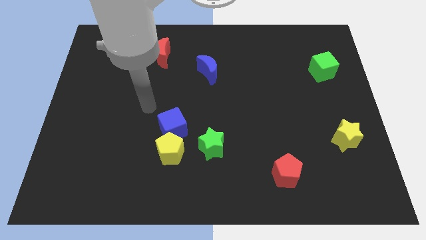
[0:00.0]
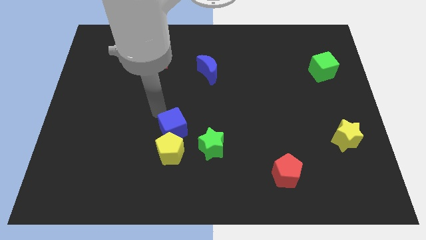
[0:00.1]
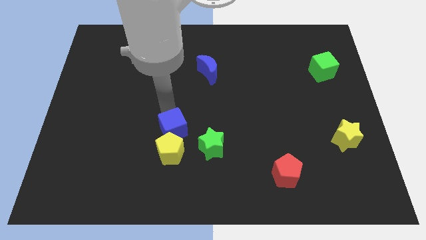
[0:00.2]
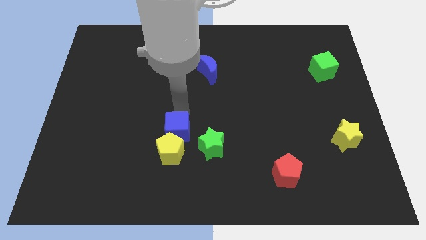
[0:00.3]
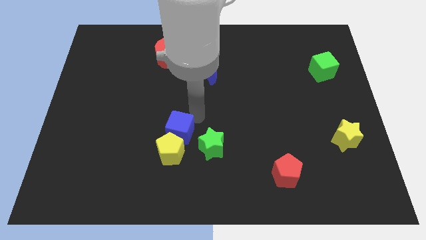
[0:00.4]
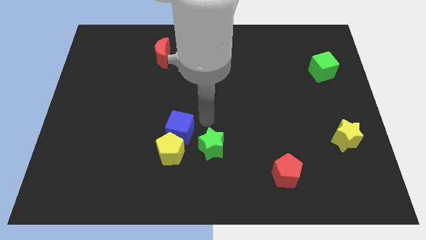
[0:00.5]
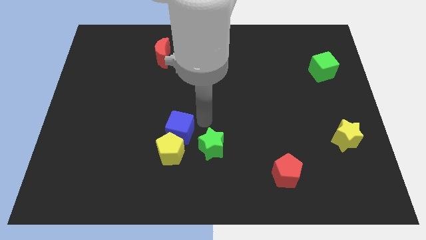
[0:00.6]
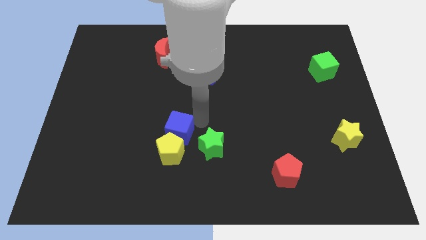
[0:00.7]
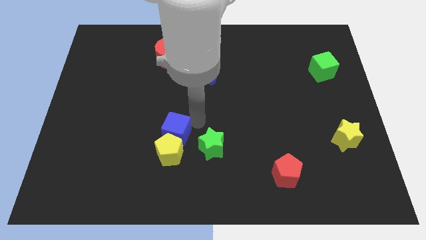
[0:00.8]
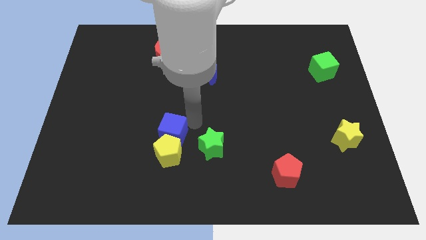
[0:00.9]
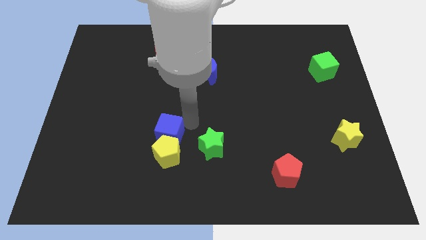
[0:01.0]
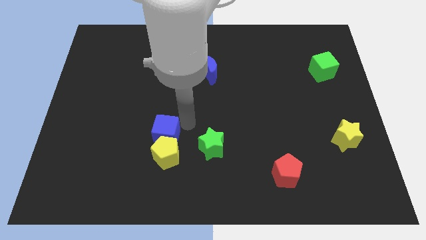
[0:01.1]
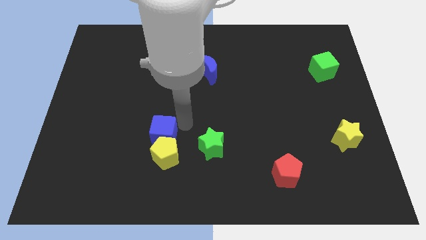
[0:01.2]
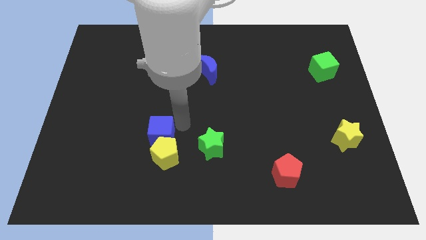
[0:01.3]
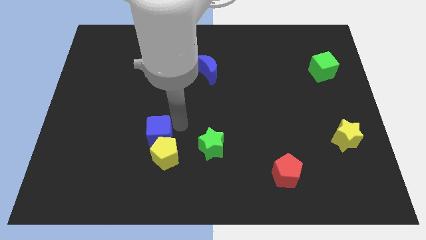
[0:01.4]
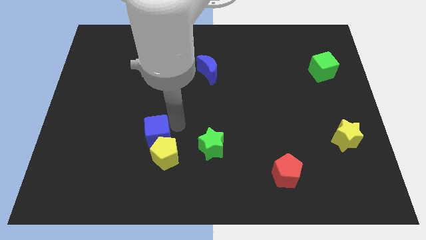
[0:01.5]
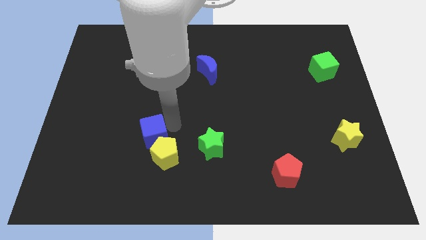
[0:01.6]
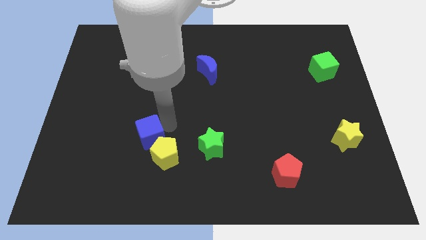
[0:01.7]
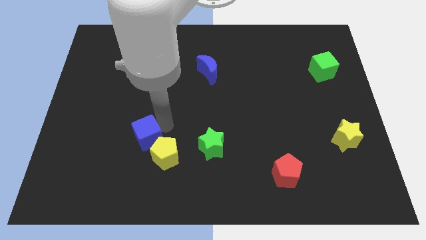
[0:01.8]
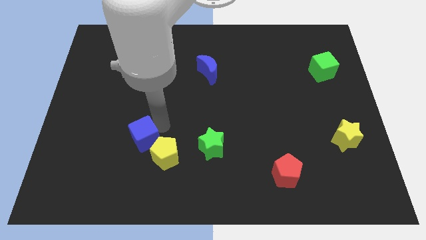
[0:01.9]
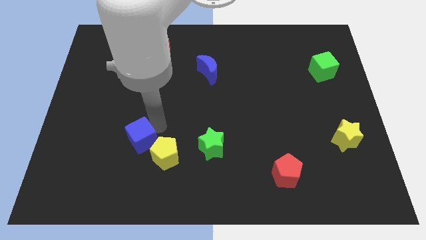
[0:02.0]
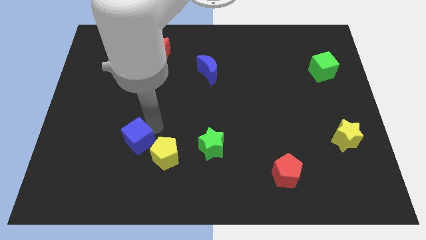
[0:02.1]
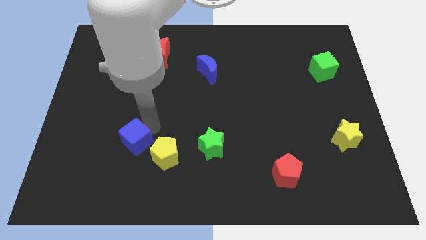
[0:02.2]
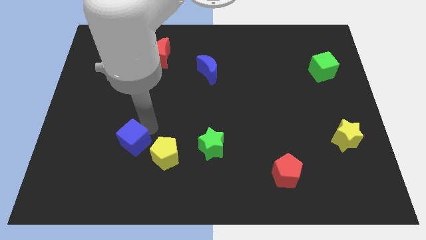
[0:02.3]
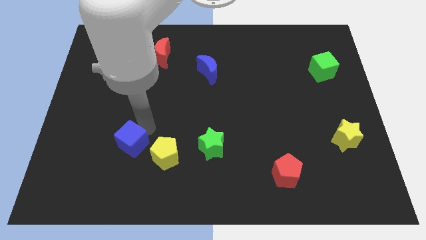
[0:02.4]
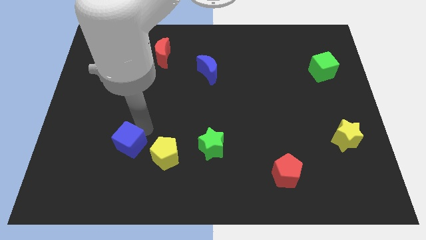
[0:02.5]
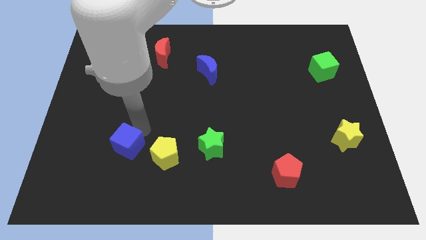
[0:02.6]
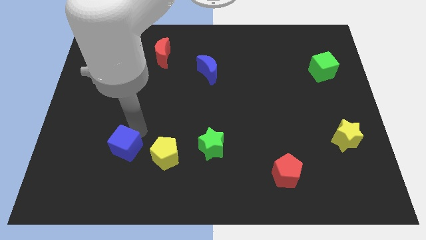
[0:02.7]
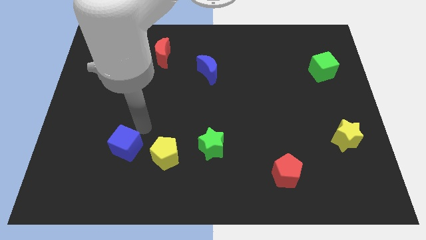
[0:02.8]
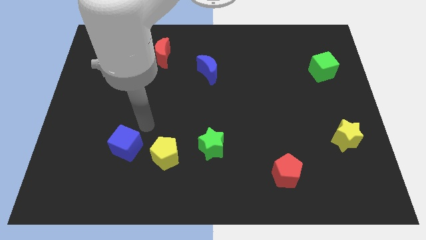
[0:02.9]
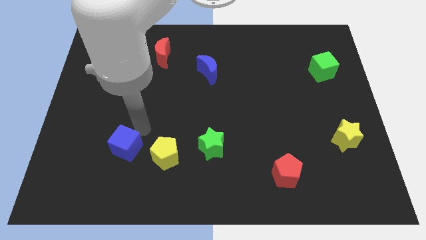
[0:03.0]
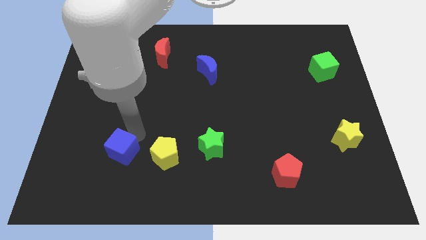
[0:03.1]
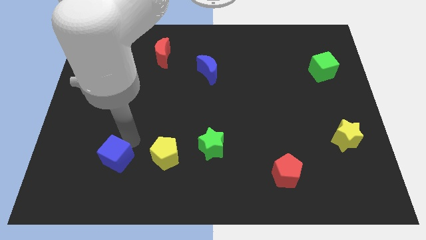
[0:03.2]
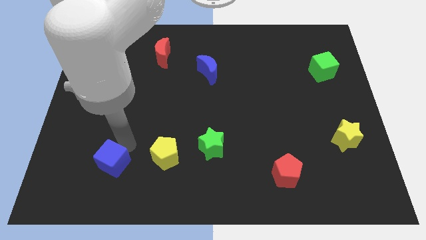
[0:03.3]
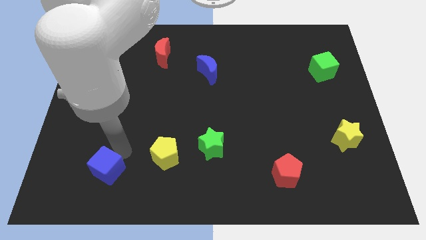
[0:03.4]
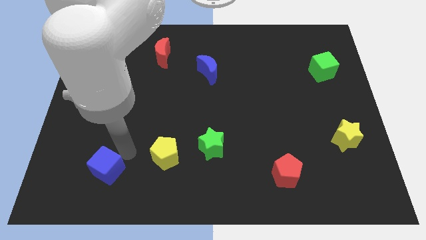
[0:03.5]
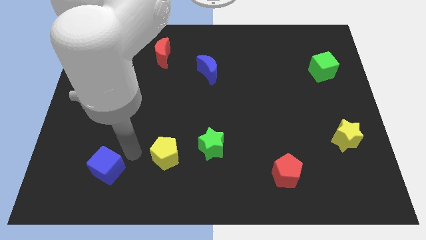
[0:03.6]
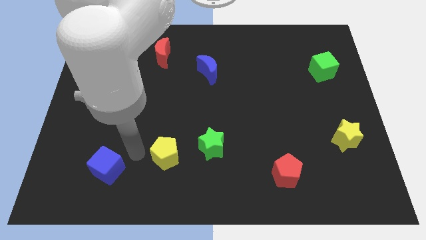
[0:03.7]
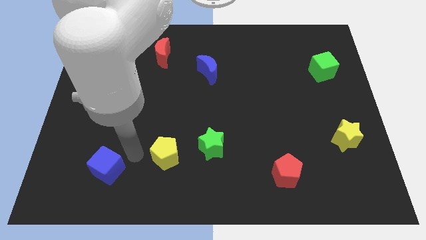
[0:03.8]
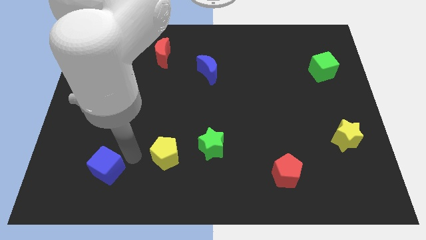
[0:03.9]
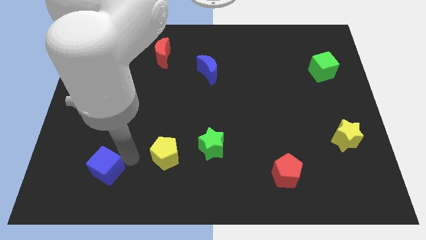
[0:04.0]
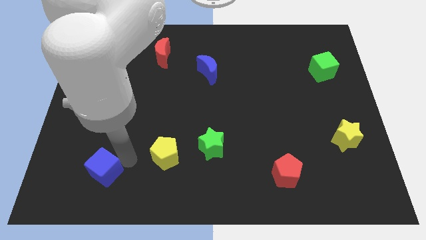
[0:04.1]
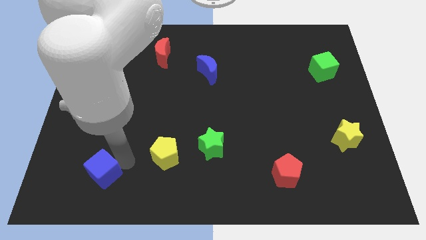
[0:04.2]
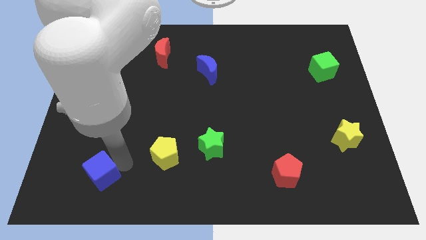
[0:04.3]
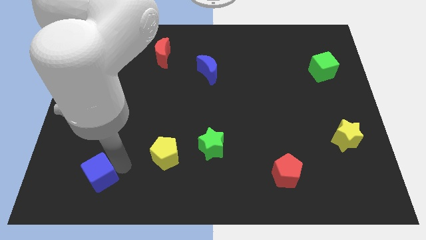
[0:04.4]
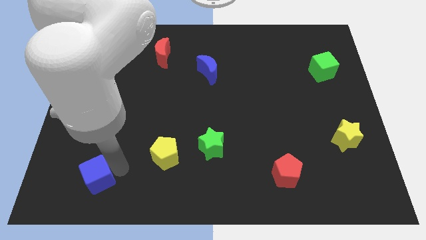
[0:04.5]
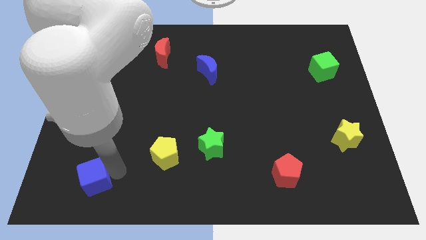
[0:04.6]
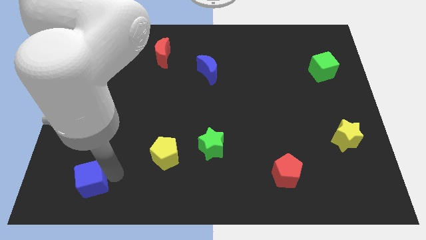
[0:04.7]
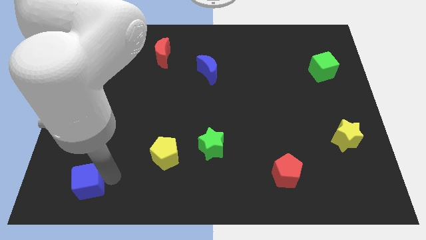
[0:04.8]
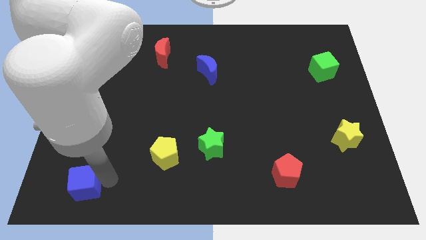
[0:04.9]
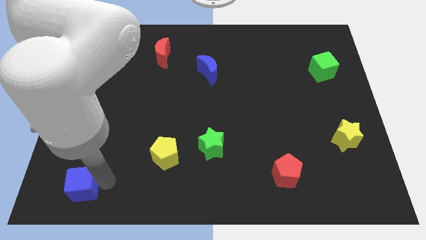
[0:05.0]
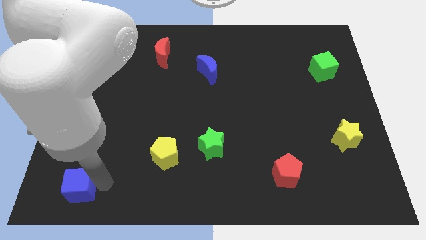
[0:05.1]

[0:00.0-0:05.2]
slide the blue cube to the bottom left of the board

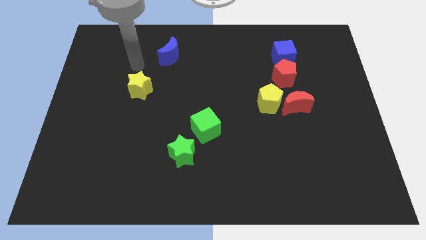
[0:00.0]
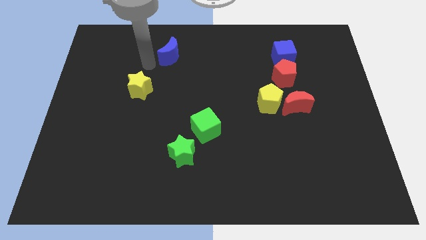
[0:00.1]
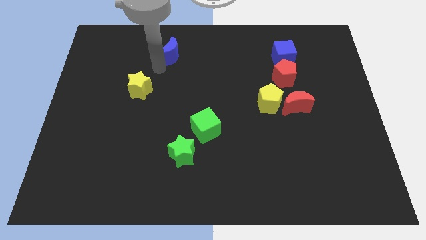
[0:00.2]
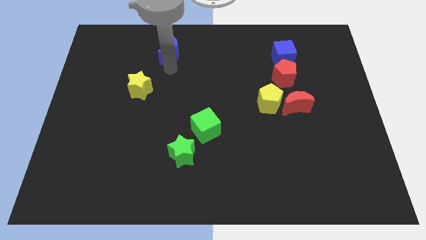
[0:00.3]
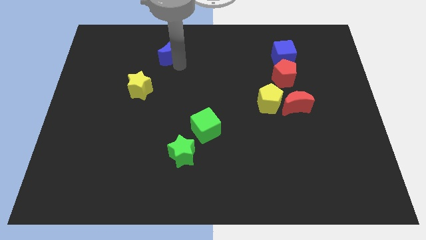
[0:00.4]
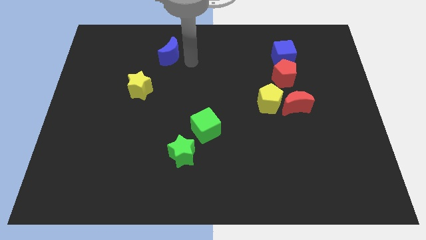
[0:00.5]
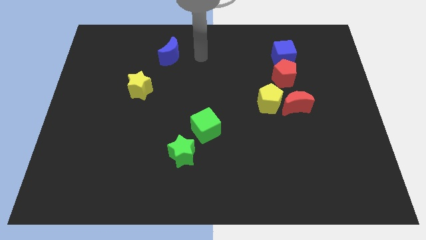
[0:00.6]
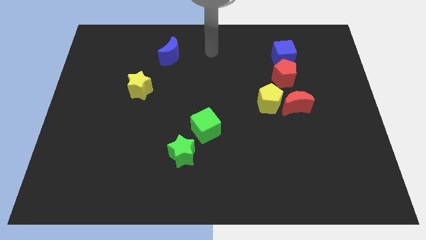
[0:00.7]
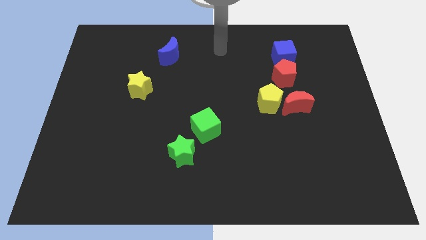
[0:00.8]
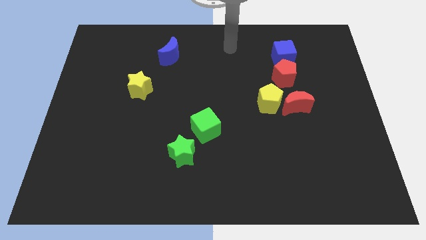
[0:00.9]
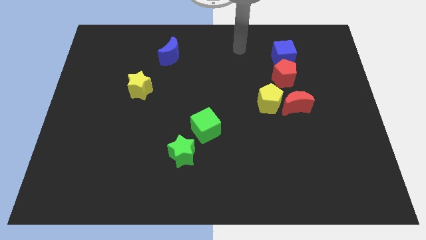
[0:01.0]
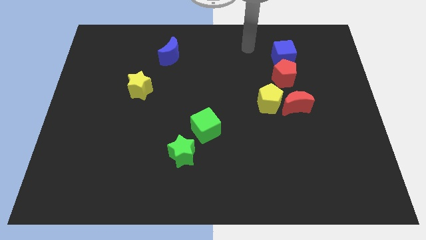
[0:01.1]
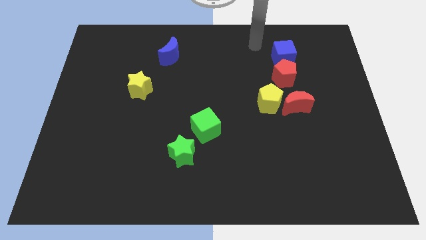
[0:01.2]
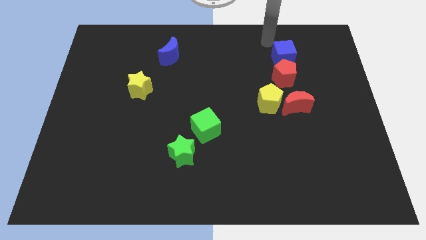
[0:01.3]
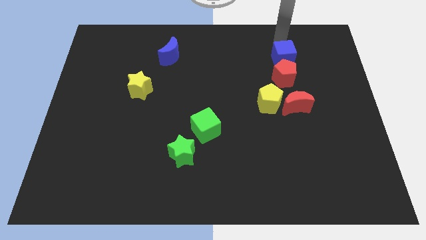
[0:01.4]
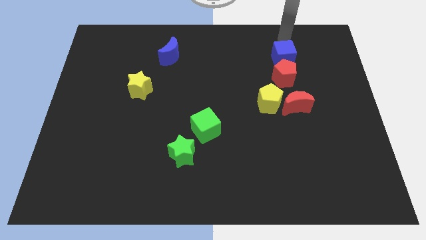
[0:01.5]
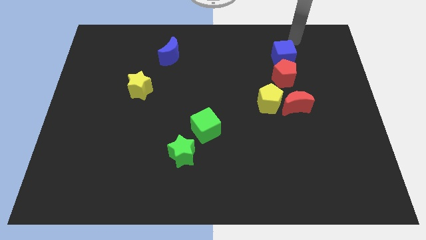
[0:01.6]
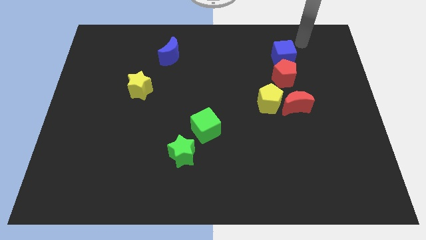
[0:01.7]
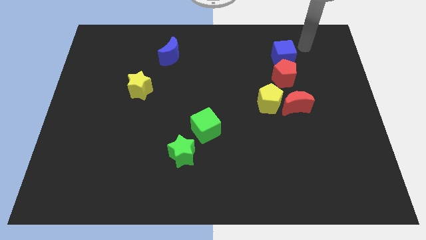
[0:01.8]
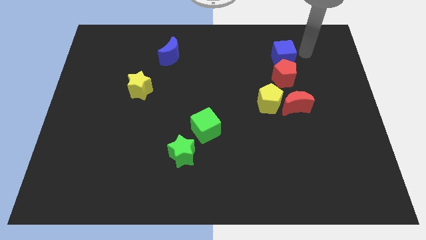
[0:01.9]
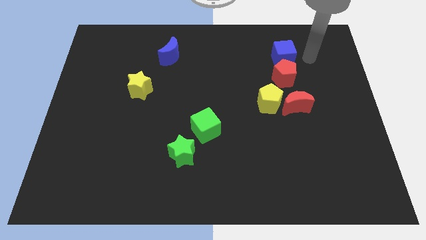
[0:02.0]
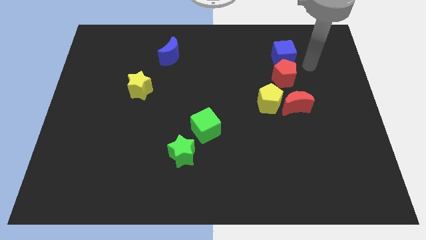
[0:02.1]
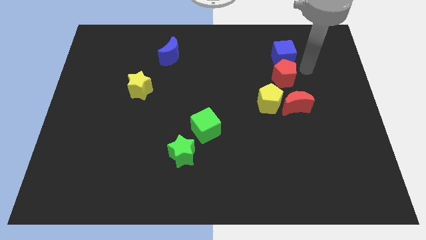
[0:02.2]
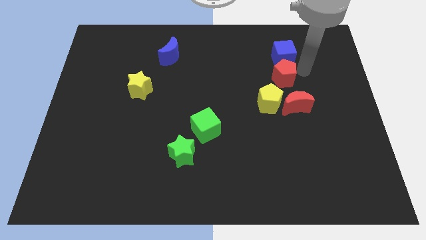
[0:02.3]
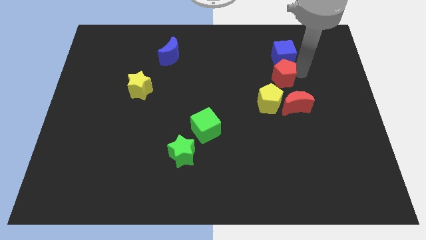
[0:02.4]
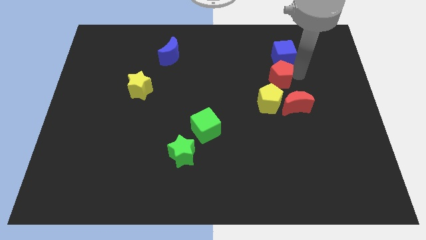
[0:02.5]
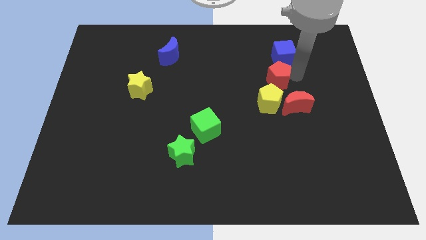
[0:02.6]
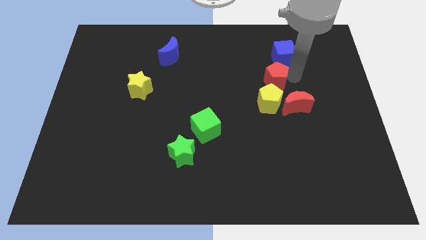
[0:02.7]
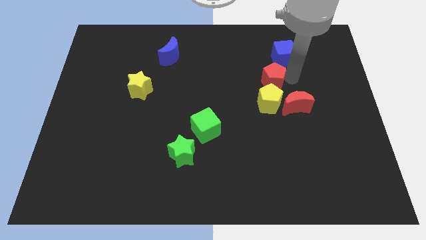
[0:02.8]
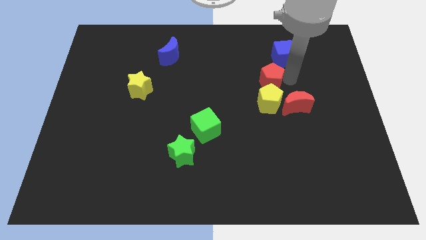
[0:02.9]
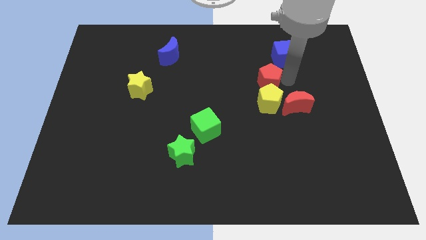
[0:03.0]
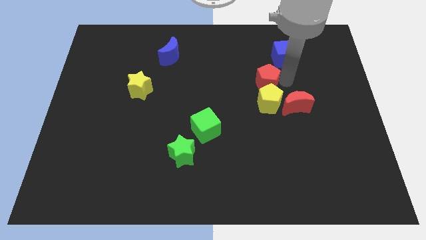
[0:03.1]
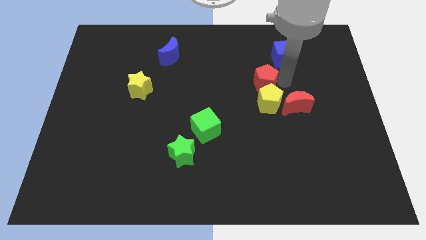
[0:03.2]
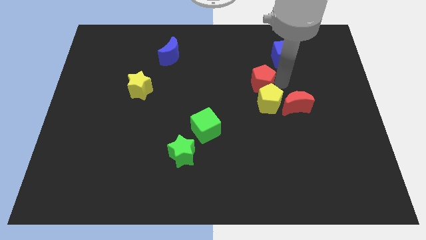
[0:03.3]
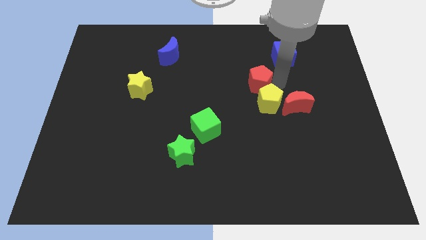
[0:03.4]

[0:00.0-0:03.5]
push the red pentagon to the center of the board
